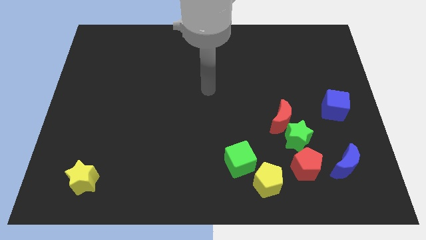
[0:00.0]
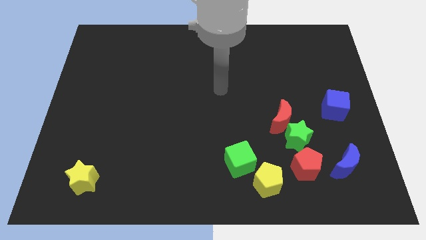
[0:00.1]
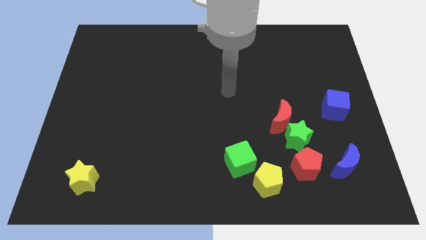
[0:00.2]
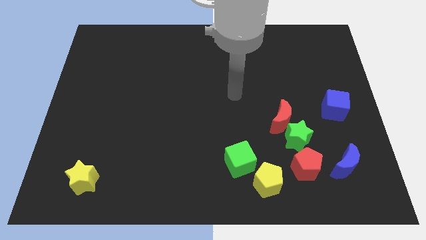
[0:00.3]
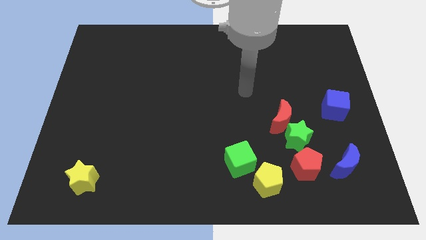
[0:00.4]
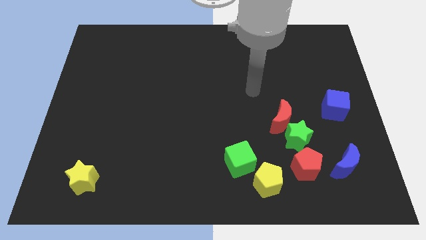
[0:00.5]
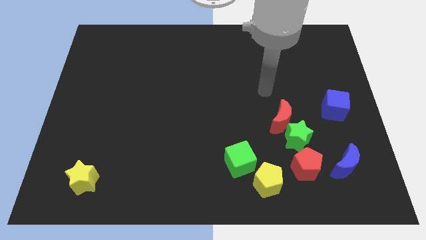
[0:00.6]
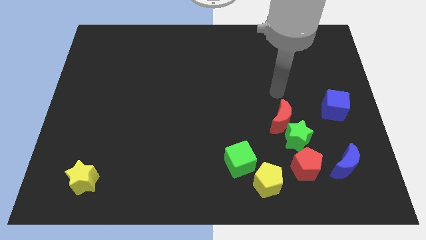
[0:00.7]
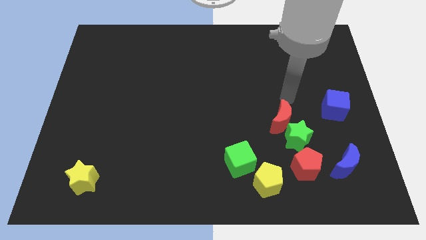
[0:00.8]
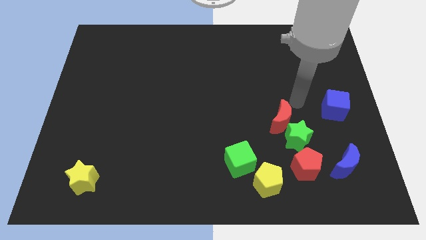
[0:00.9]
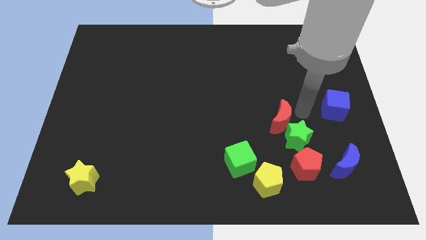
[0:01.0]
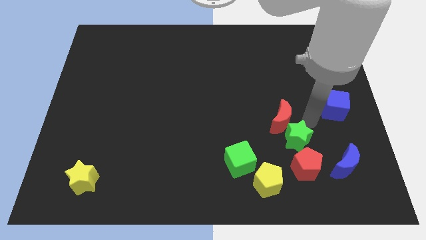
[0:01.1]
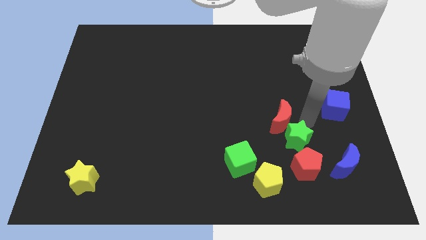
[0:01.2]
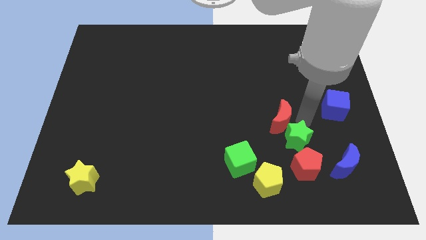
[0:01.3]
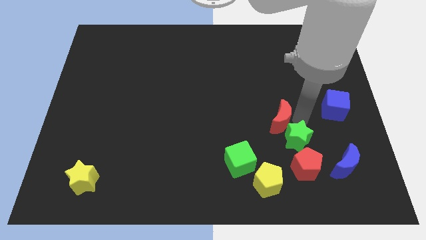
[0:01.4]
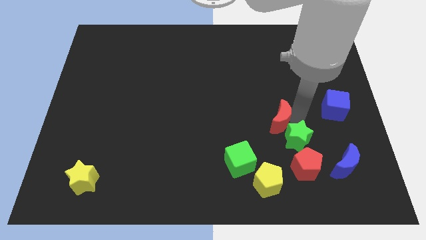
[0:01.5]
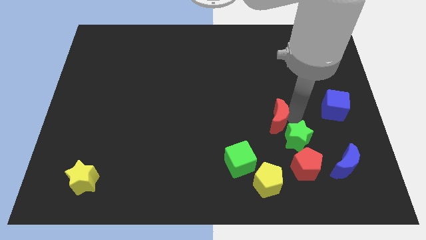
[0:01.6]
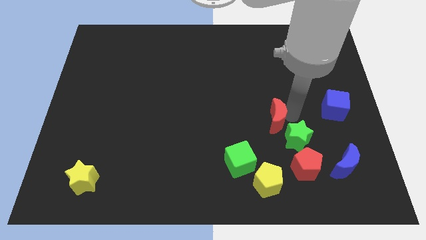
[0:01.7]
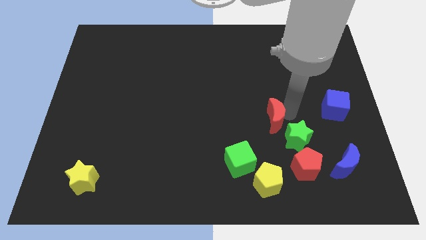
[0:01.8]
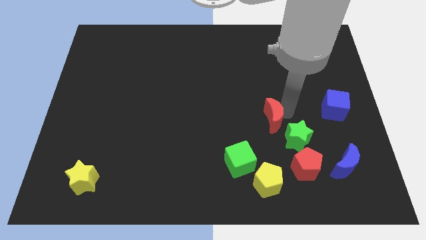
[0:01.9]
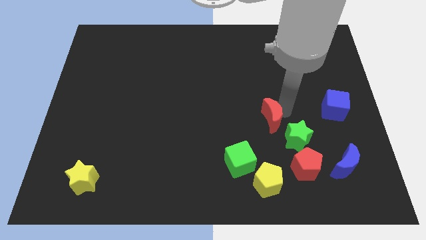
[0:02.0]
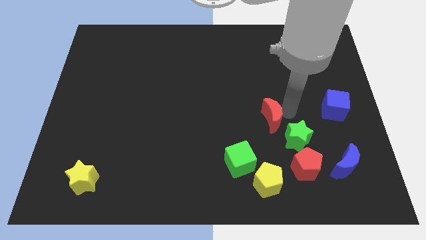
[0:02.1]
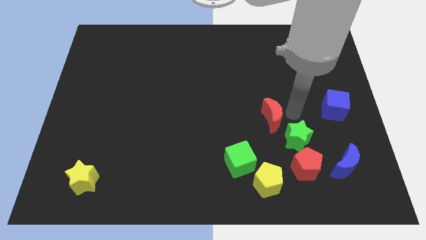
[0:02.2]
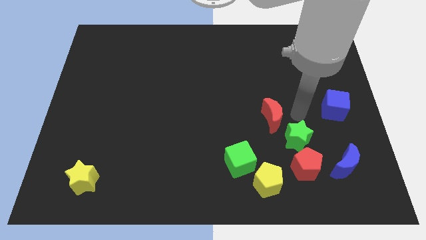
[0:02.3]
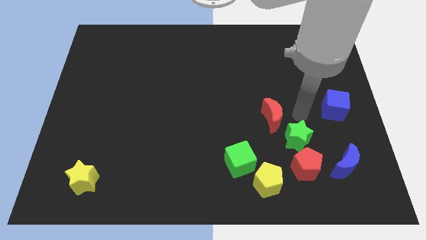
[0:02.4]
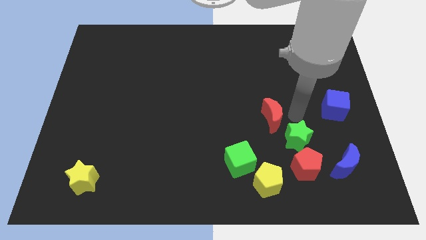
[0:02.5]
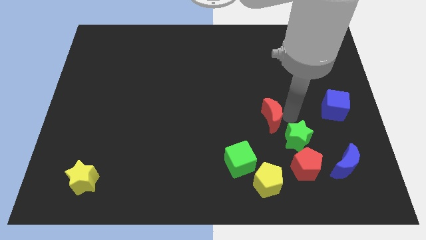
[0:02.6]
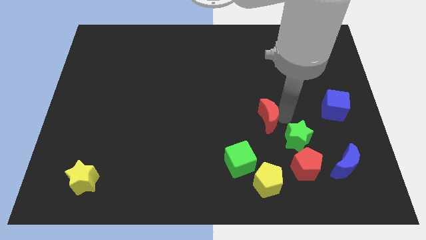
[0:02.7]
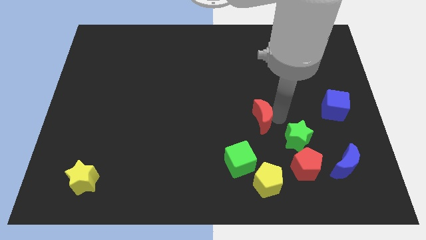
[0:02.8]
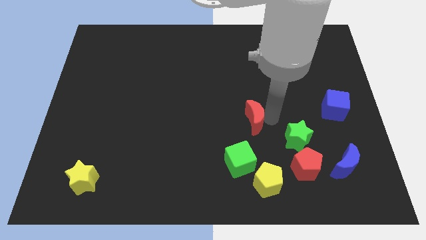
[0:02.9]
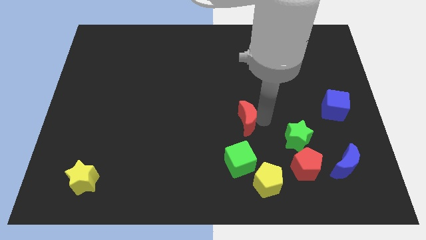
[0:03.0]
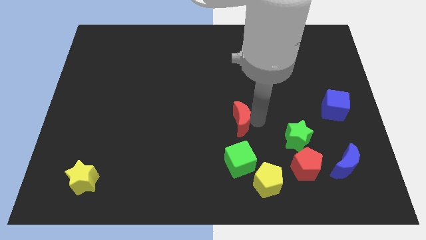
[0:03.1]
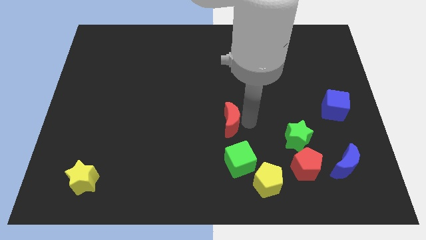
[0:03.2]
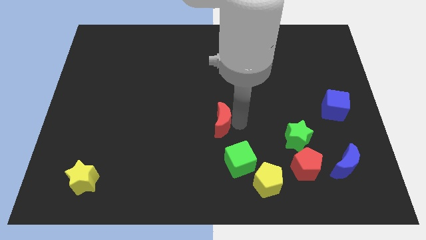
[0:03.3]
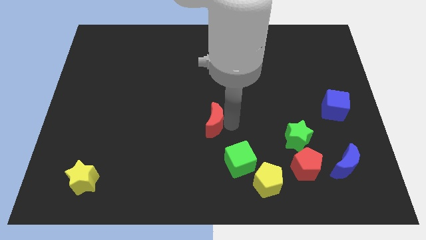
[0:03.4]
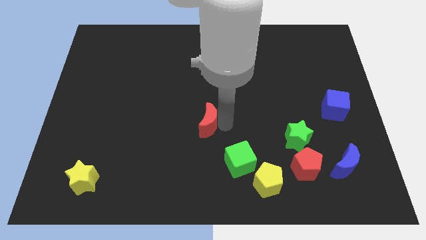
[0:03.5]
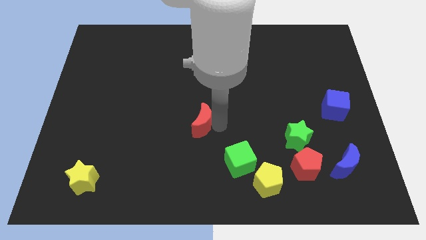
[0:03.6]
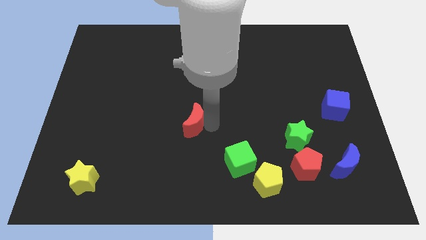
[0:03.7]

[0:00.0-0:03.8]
push the red moon to the left

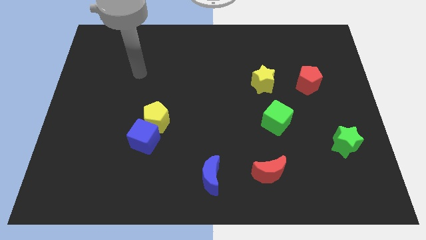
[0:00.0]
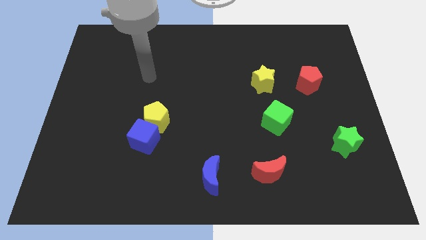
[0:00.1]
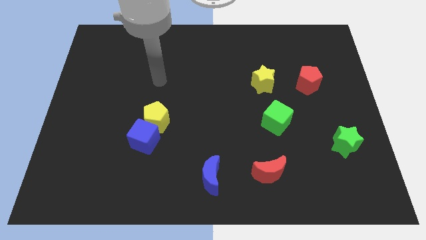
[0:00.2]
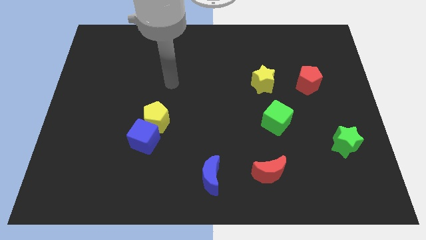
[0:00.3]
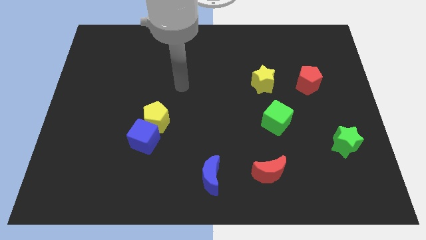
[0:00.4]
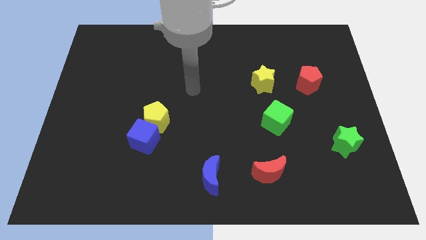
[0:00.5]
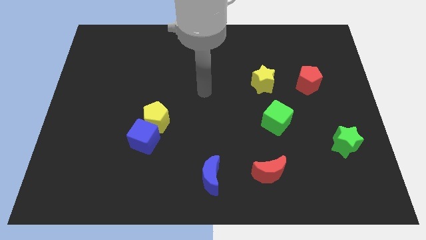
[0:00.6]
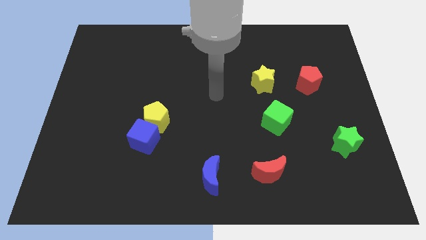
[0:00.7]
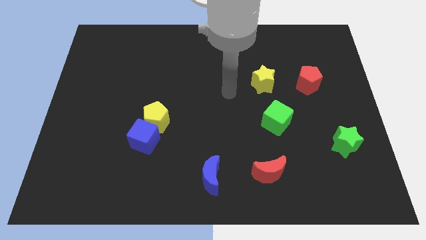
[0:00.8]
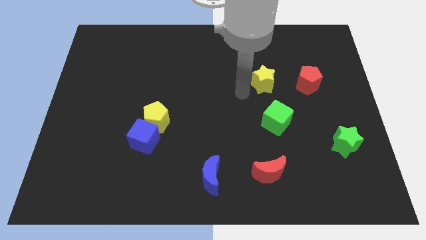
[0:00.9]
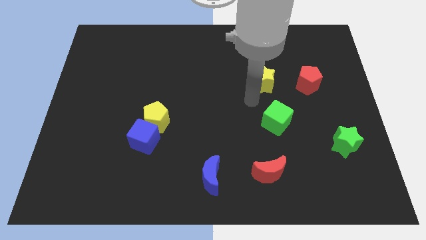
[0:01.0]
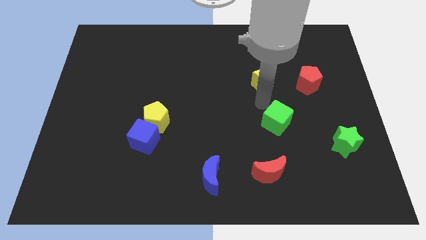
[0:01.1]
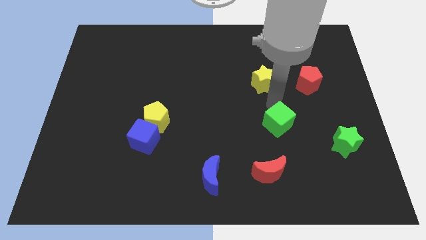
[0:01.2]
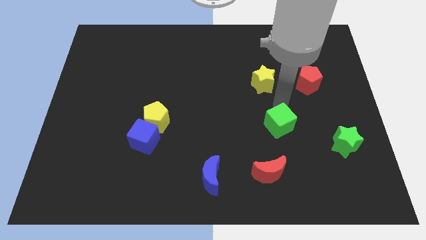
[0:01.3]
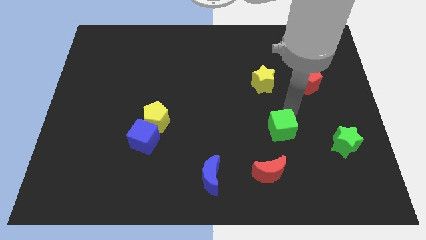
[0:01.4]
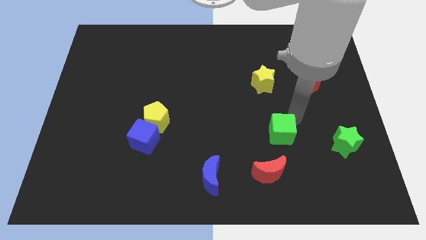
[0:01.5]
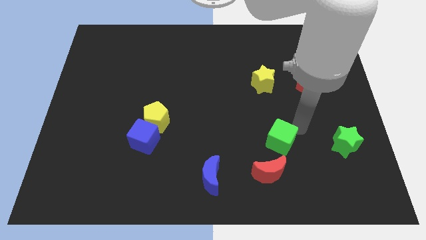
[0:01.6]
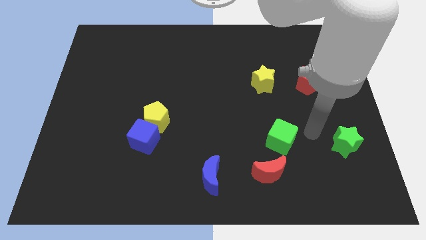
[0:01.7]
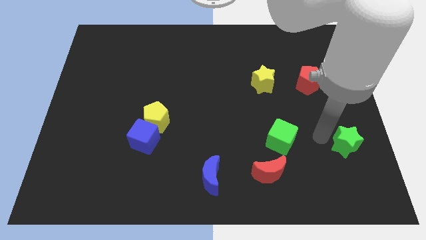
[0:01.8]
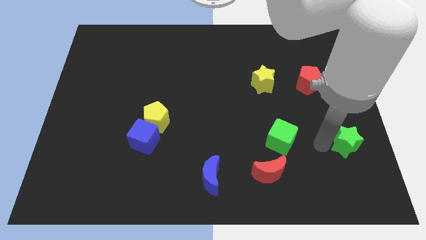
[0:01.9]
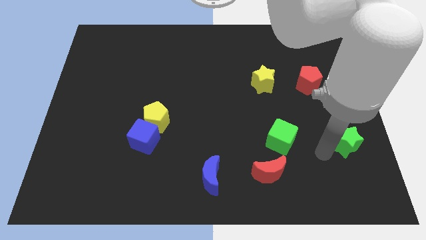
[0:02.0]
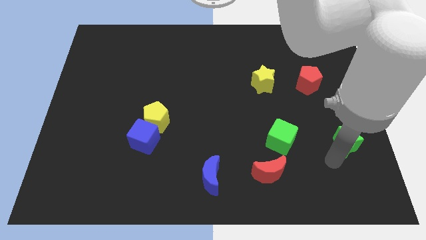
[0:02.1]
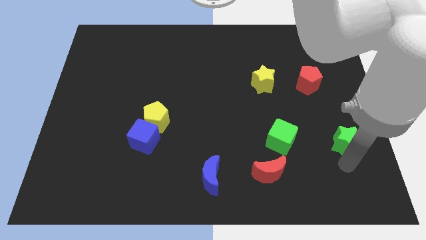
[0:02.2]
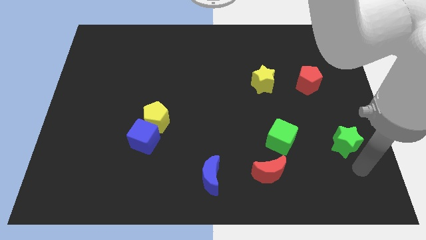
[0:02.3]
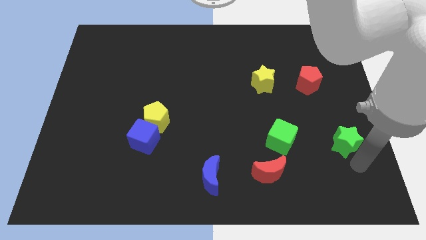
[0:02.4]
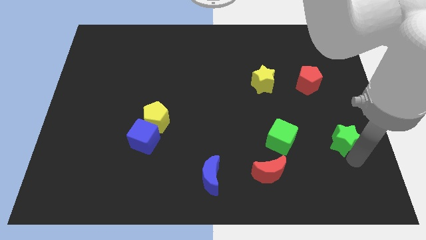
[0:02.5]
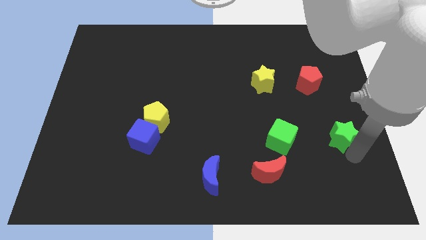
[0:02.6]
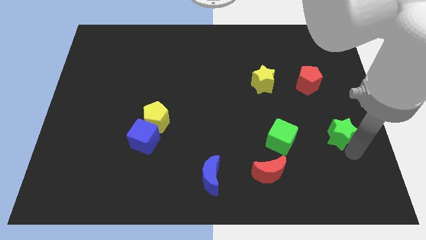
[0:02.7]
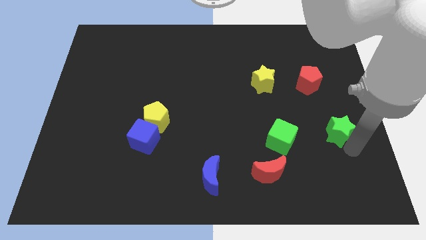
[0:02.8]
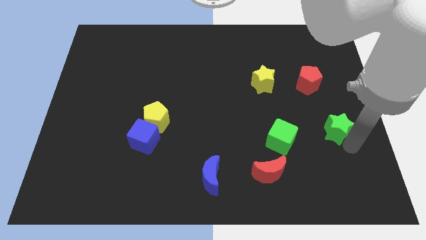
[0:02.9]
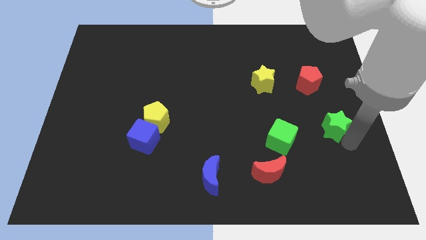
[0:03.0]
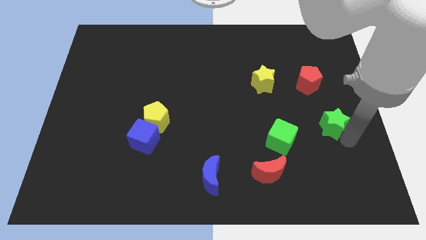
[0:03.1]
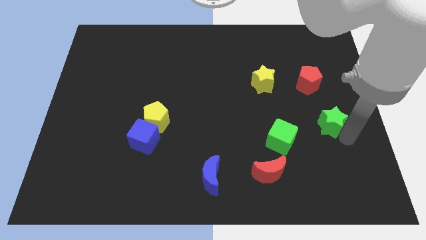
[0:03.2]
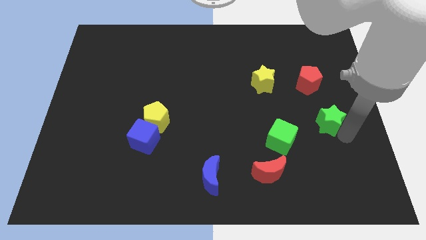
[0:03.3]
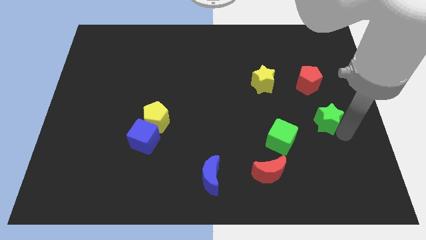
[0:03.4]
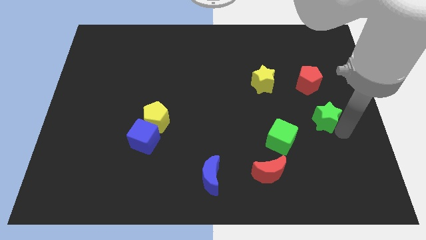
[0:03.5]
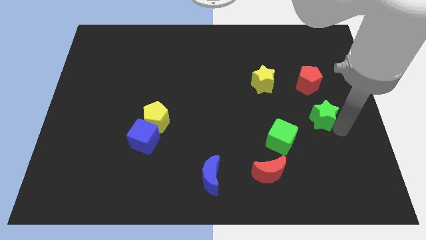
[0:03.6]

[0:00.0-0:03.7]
push the green star upwards and then to the left somewhat

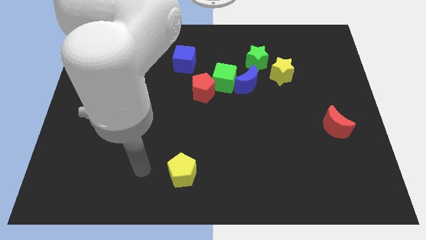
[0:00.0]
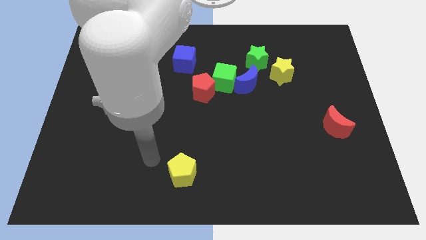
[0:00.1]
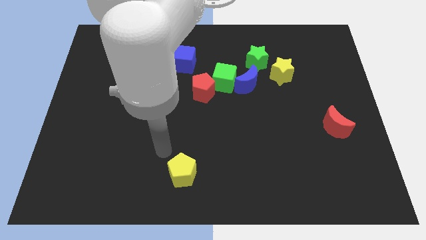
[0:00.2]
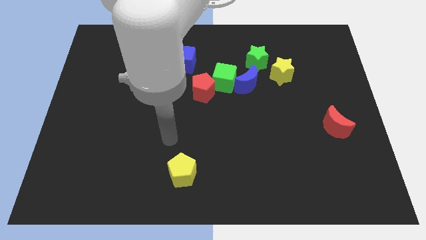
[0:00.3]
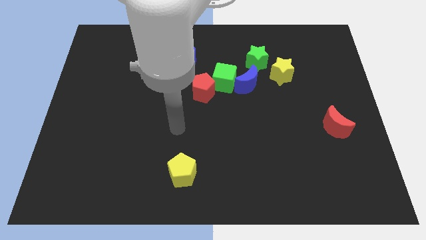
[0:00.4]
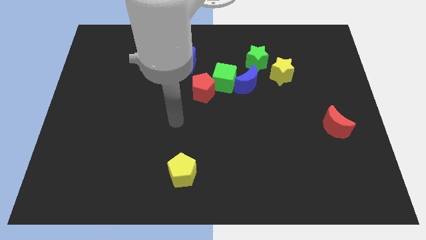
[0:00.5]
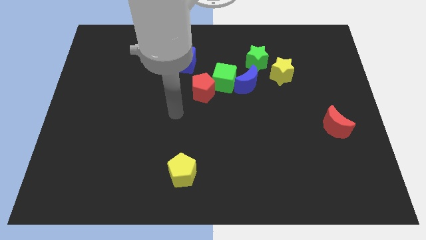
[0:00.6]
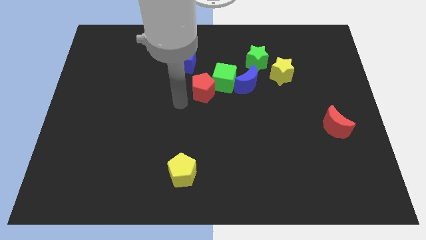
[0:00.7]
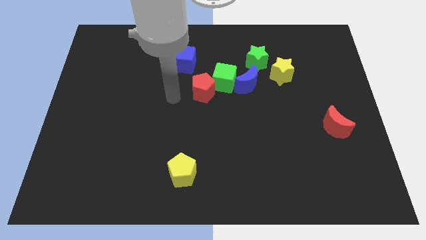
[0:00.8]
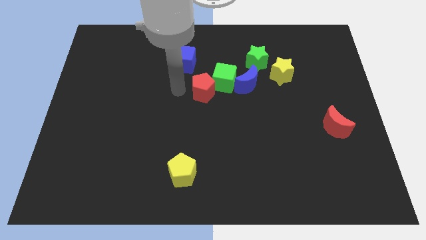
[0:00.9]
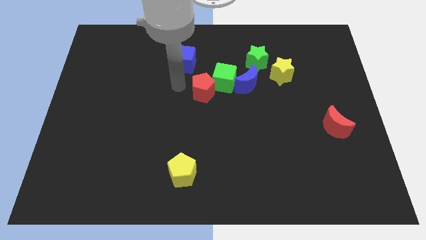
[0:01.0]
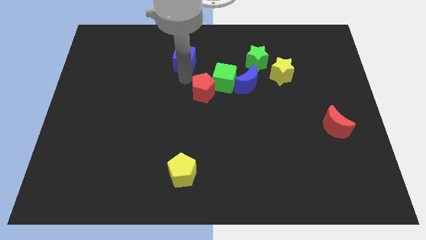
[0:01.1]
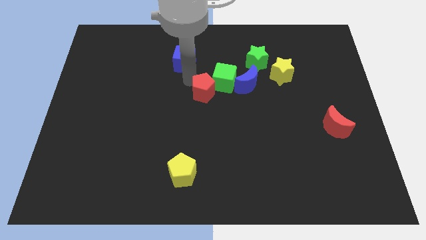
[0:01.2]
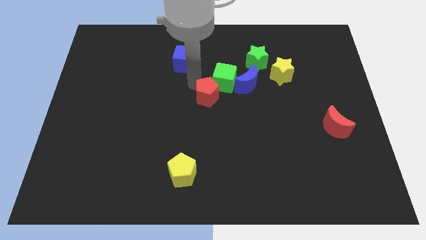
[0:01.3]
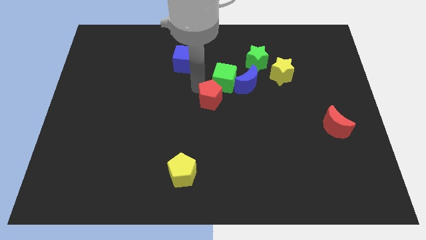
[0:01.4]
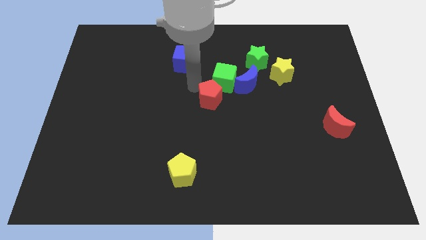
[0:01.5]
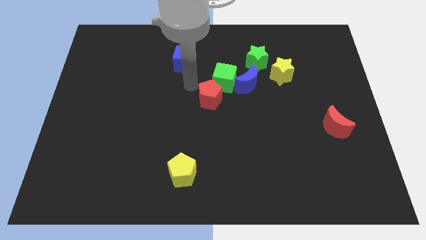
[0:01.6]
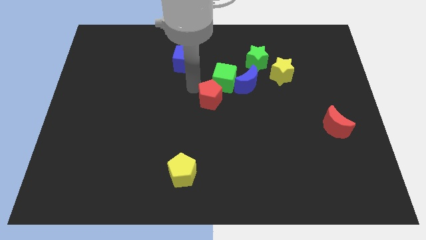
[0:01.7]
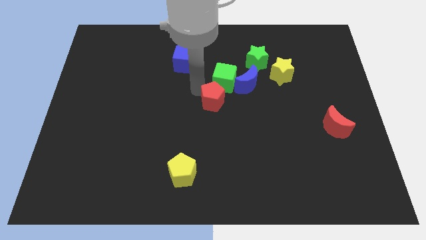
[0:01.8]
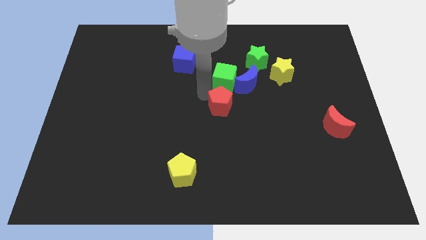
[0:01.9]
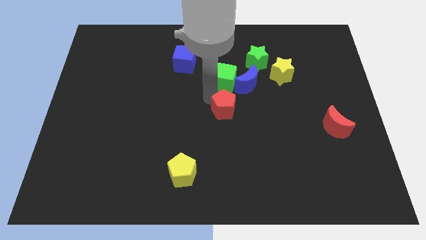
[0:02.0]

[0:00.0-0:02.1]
move the red pentagon down and to the right diagonally slightly
